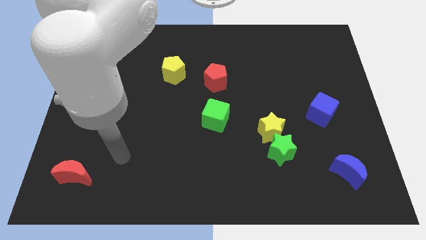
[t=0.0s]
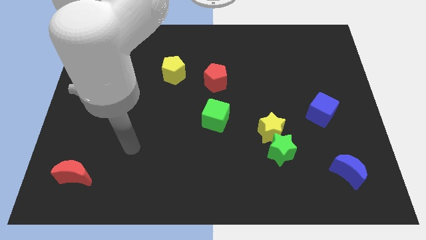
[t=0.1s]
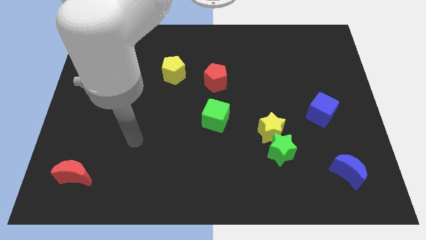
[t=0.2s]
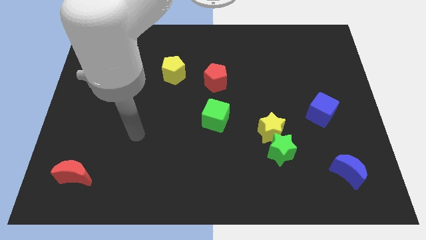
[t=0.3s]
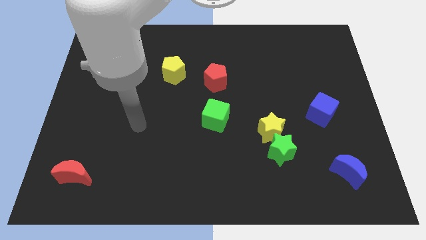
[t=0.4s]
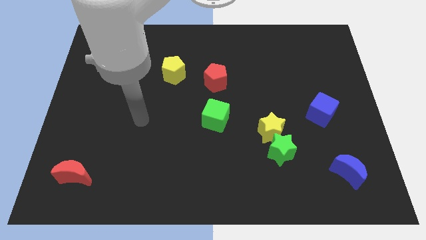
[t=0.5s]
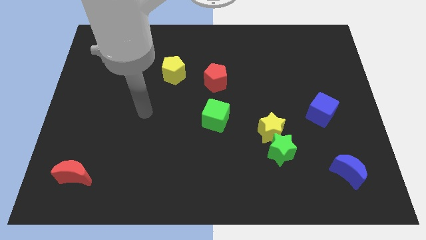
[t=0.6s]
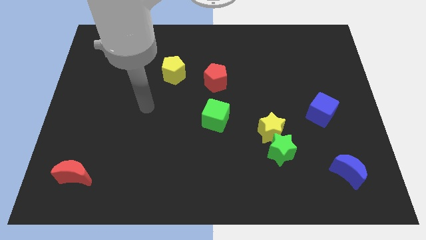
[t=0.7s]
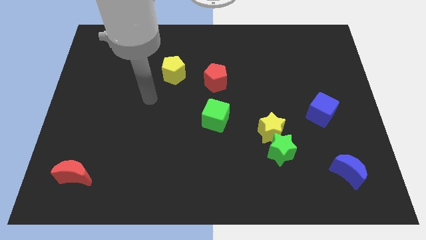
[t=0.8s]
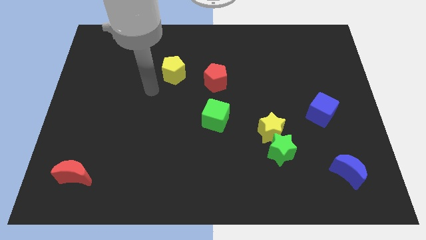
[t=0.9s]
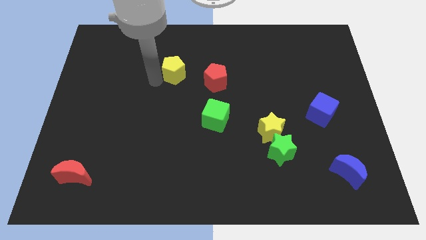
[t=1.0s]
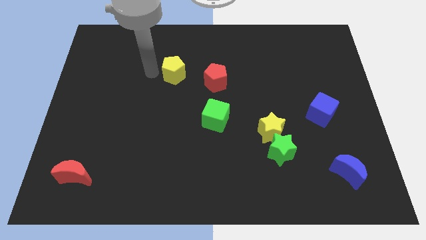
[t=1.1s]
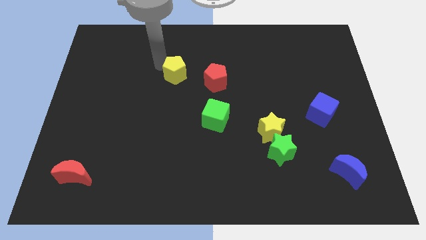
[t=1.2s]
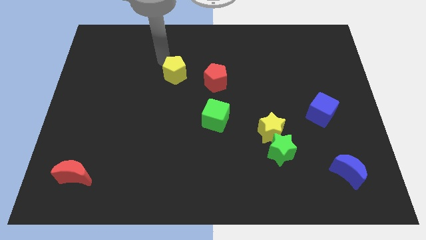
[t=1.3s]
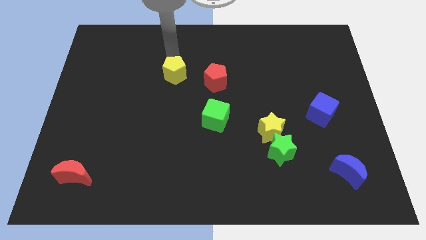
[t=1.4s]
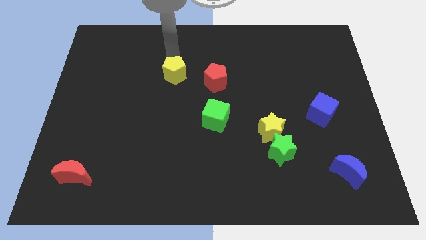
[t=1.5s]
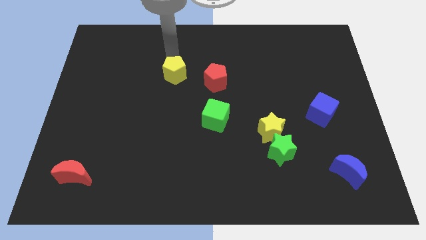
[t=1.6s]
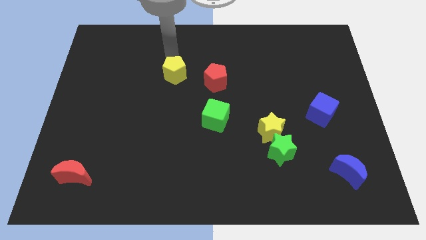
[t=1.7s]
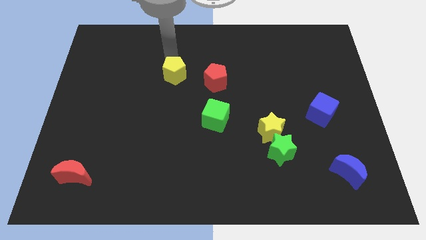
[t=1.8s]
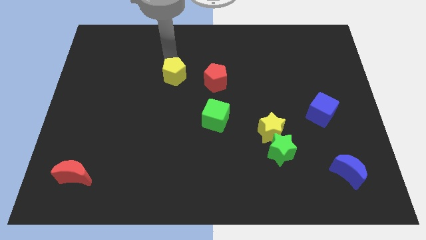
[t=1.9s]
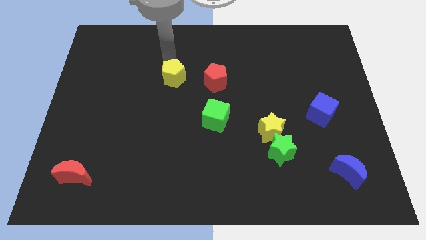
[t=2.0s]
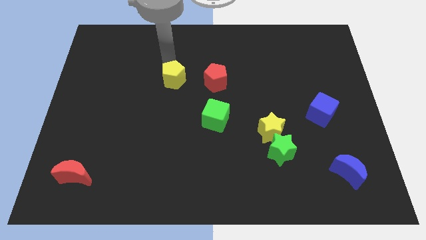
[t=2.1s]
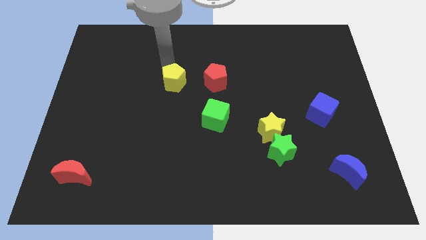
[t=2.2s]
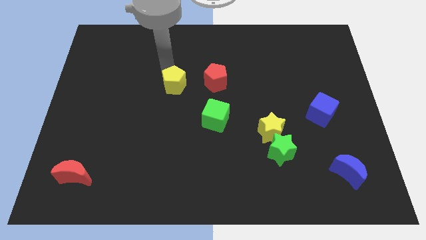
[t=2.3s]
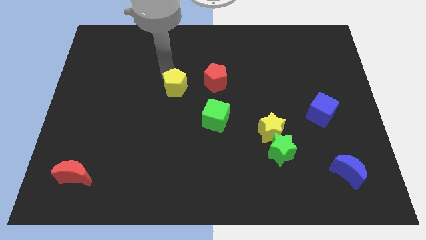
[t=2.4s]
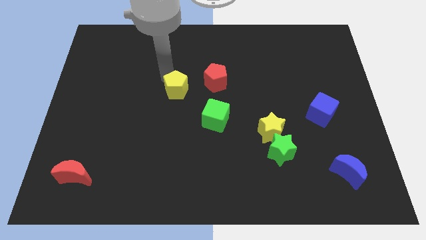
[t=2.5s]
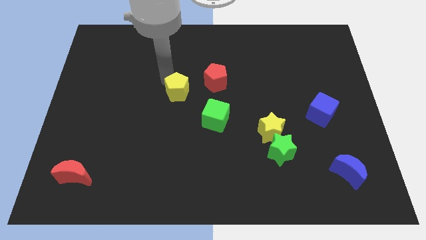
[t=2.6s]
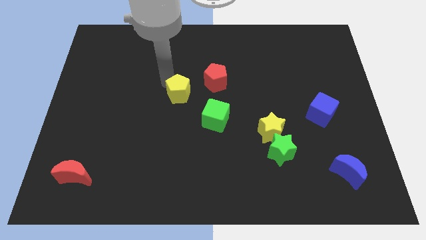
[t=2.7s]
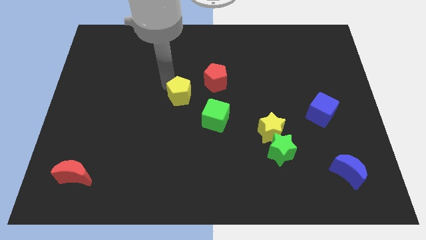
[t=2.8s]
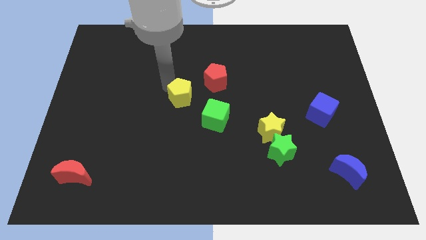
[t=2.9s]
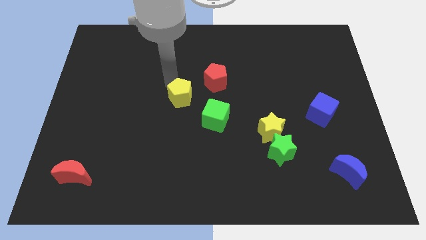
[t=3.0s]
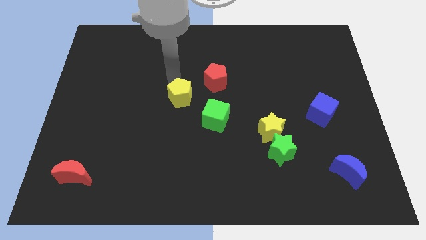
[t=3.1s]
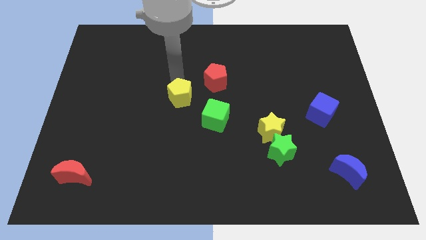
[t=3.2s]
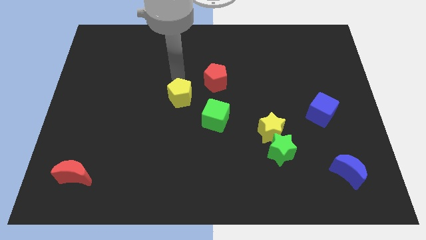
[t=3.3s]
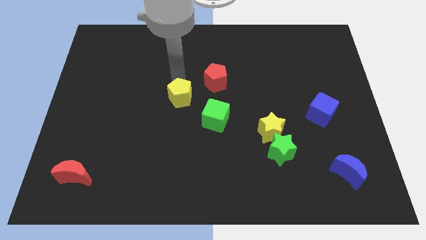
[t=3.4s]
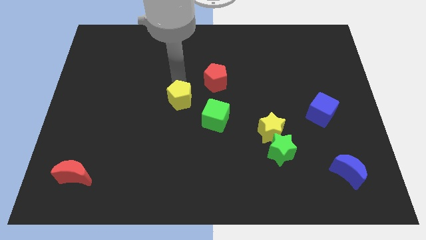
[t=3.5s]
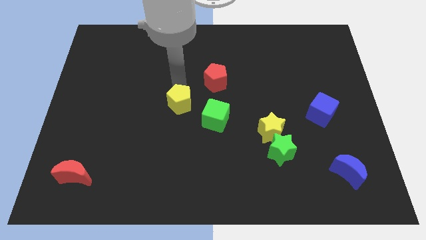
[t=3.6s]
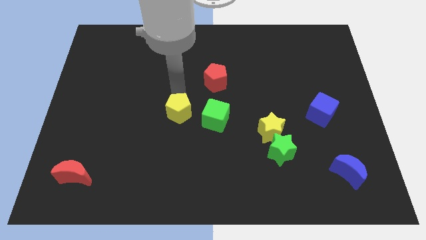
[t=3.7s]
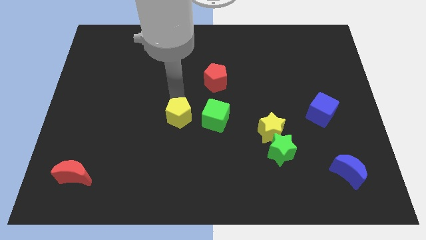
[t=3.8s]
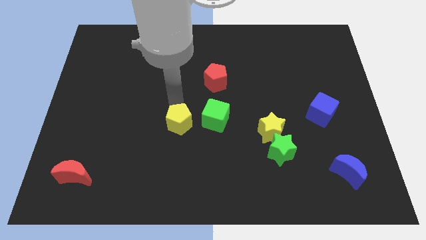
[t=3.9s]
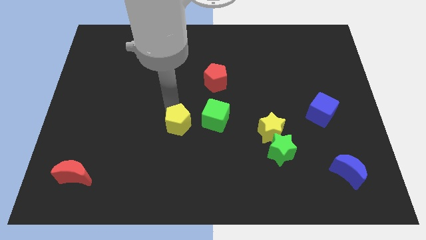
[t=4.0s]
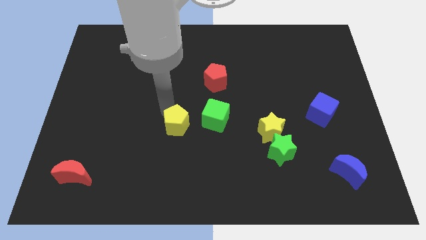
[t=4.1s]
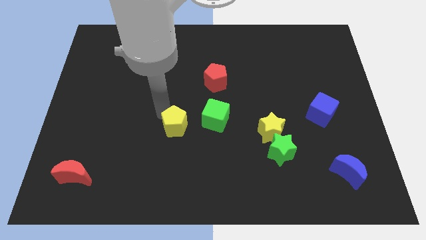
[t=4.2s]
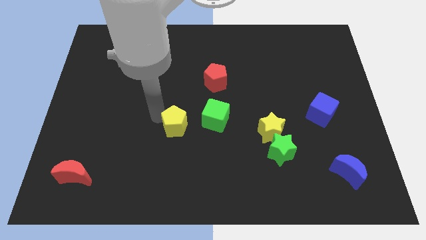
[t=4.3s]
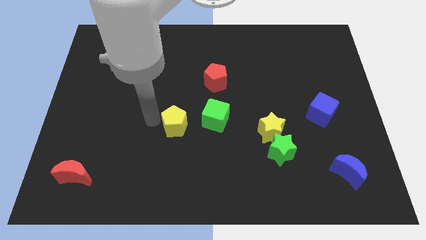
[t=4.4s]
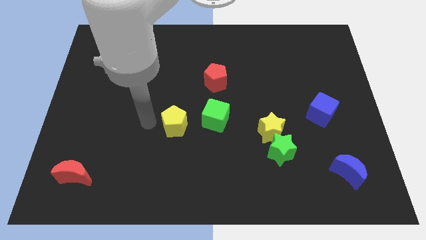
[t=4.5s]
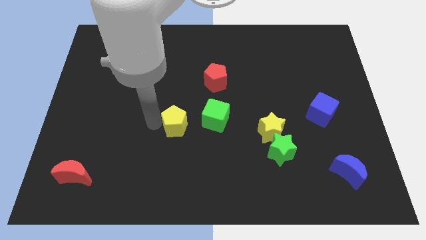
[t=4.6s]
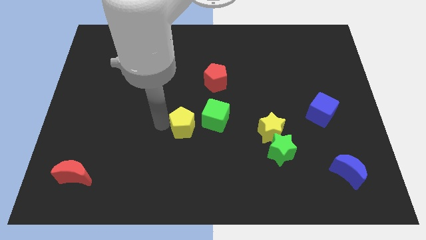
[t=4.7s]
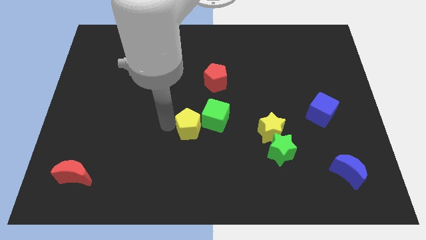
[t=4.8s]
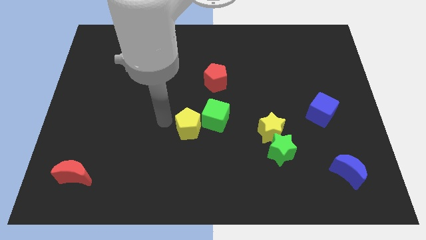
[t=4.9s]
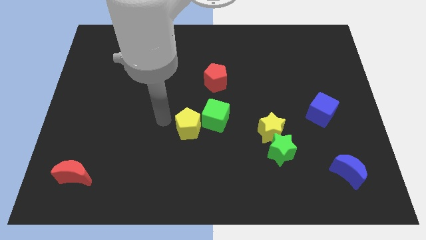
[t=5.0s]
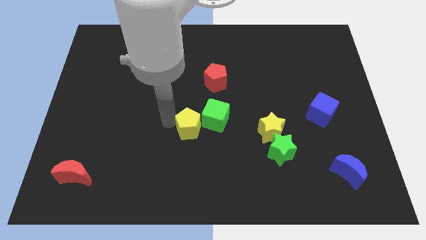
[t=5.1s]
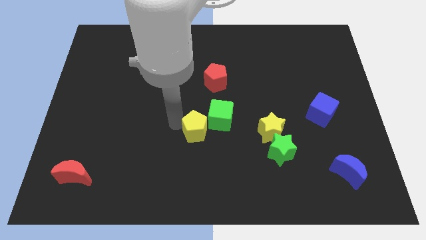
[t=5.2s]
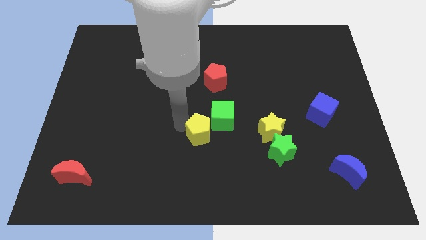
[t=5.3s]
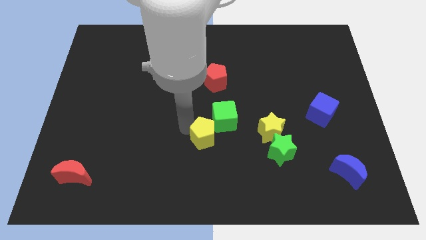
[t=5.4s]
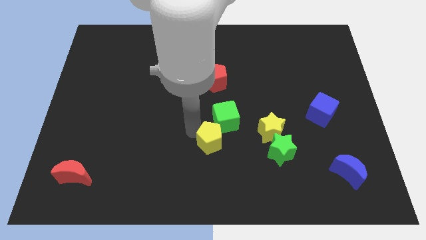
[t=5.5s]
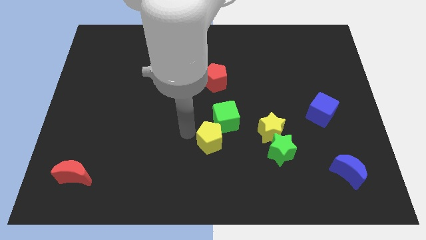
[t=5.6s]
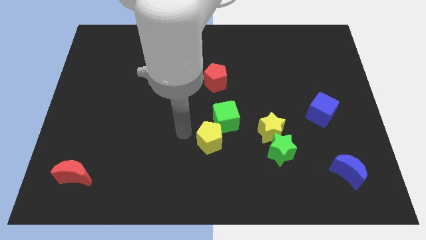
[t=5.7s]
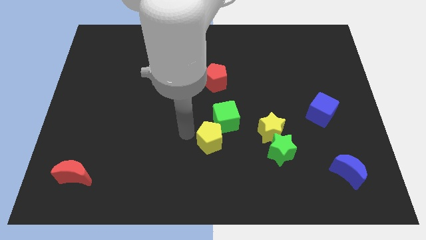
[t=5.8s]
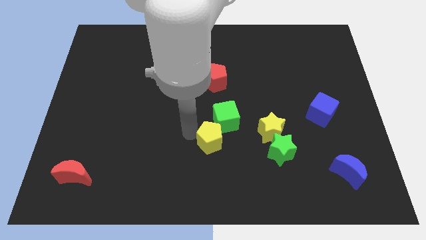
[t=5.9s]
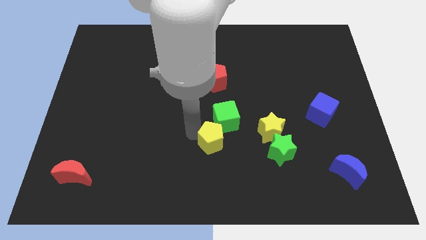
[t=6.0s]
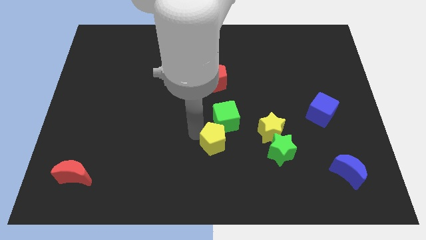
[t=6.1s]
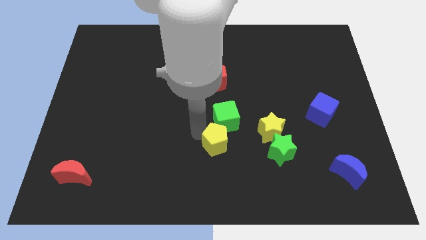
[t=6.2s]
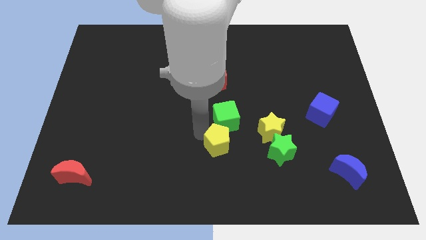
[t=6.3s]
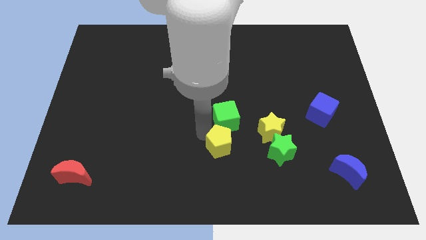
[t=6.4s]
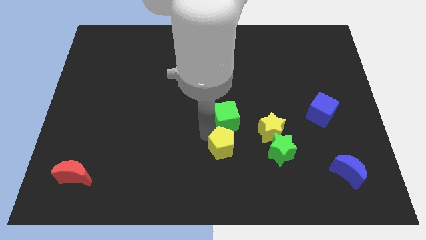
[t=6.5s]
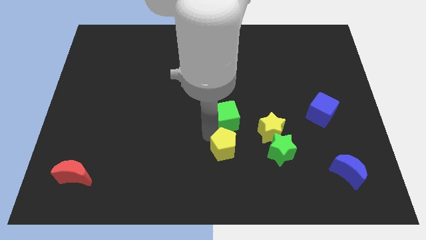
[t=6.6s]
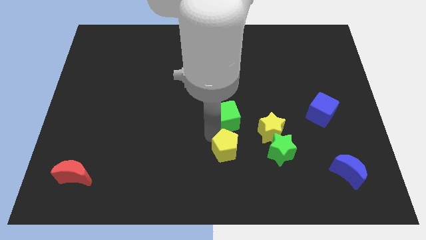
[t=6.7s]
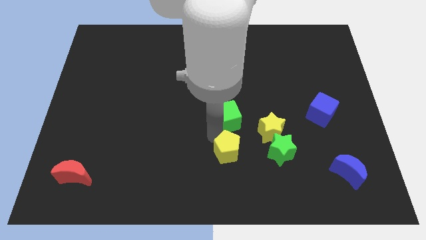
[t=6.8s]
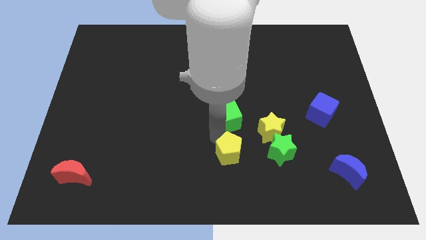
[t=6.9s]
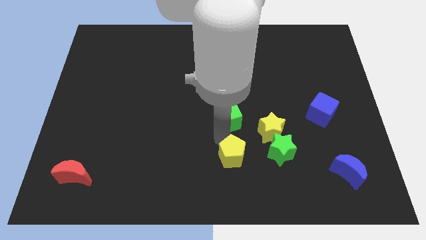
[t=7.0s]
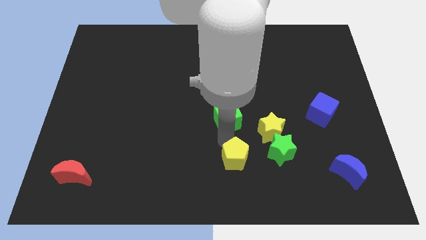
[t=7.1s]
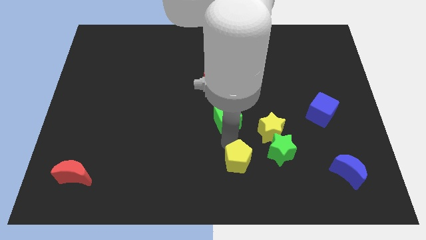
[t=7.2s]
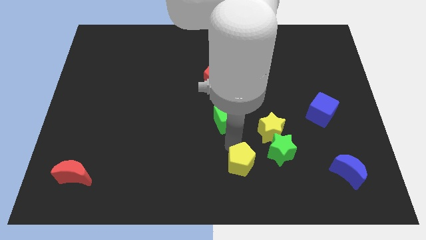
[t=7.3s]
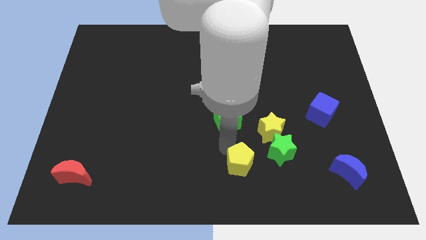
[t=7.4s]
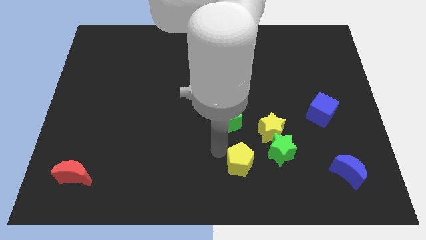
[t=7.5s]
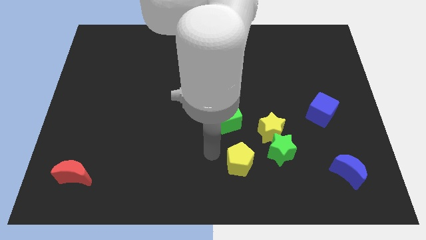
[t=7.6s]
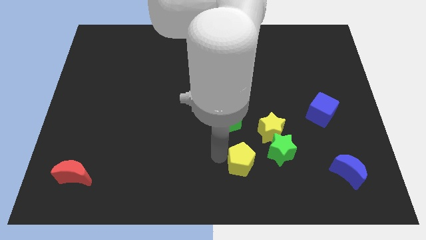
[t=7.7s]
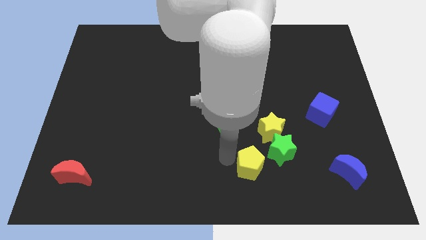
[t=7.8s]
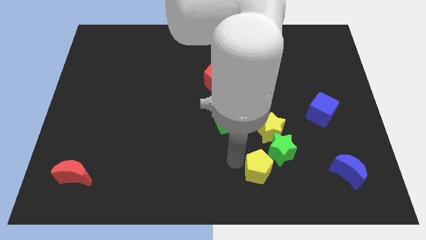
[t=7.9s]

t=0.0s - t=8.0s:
slide the yellow pentagon to the bottom of the yellow star
